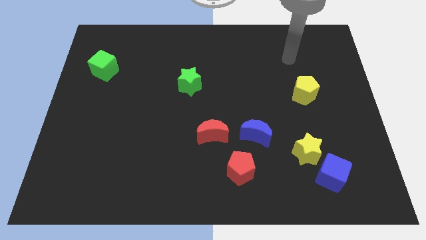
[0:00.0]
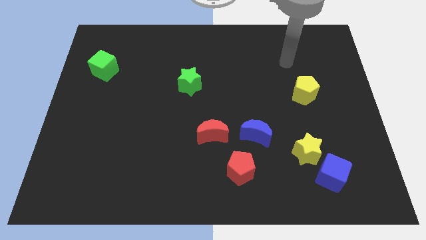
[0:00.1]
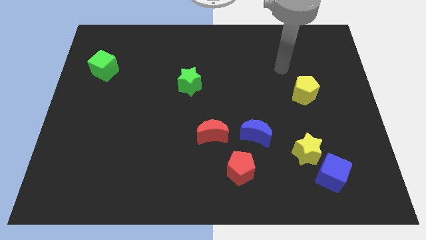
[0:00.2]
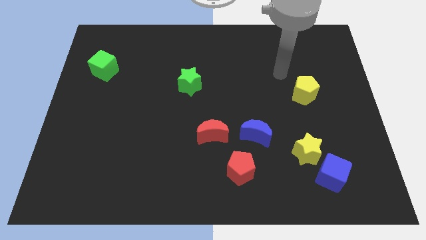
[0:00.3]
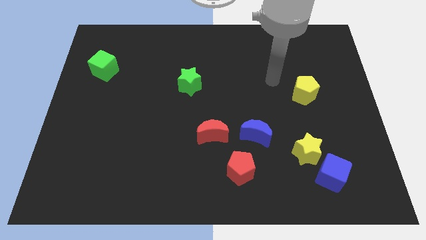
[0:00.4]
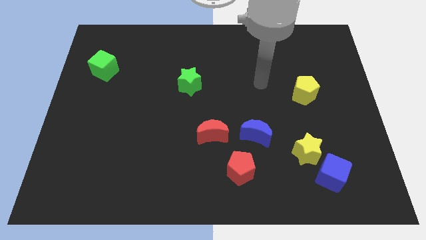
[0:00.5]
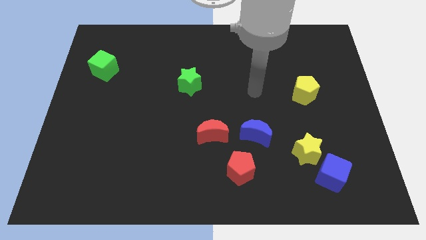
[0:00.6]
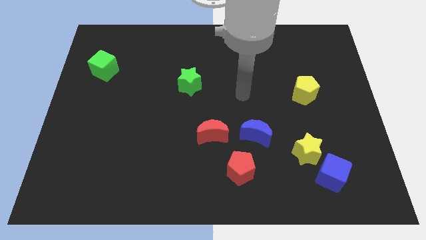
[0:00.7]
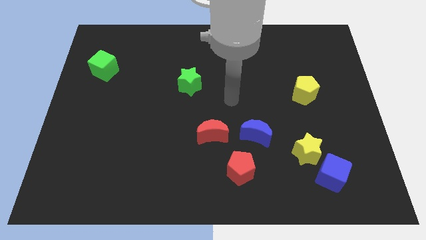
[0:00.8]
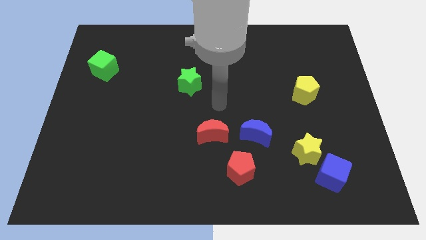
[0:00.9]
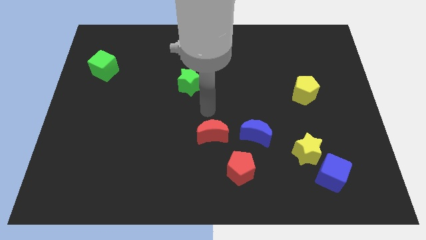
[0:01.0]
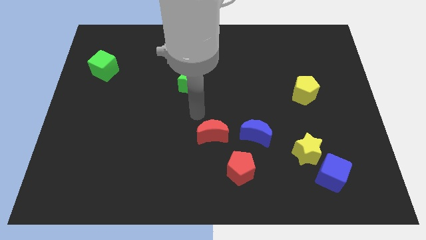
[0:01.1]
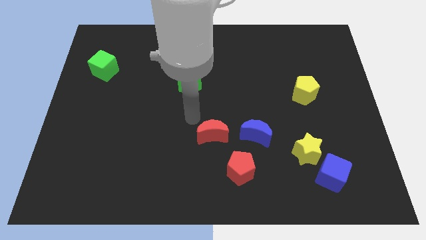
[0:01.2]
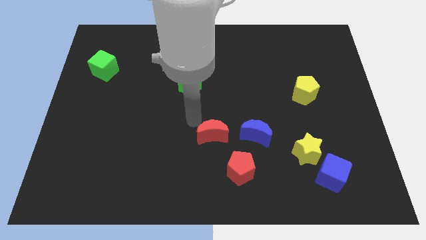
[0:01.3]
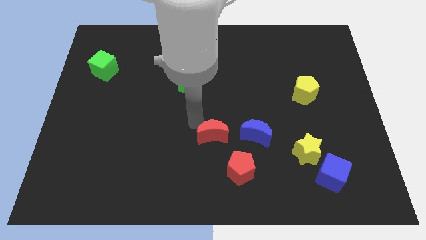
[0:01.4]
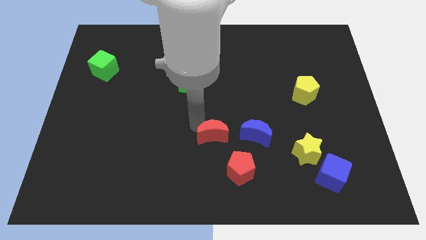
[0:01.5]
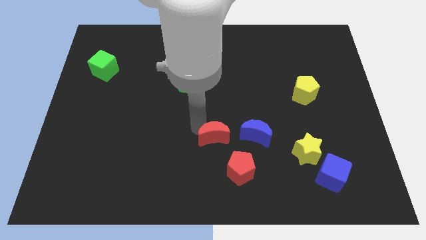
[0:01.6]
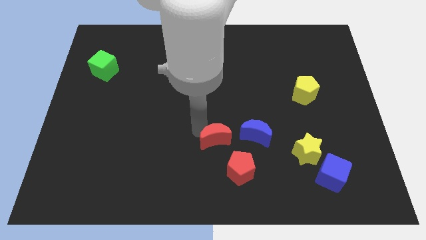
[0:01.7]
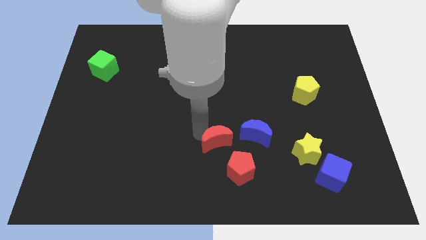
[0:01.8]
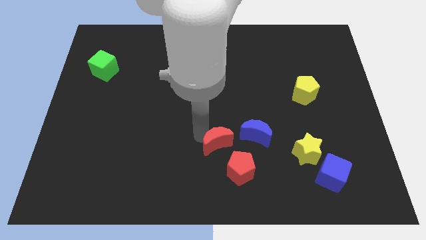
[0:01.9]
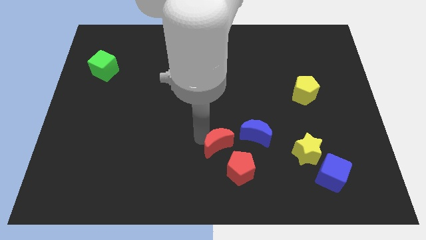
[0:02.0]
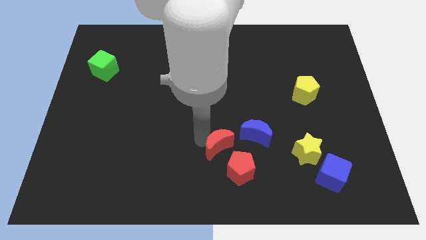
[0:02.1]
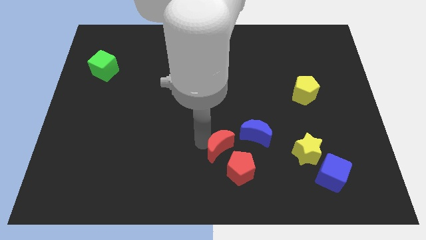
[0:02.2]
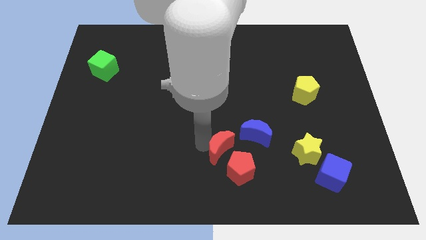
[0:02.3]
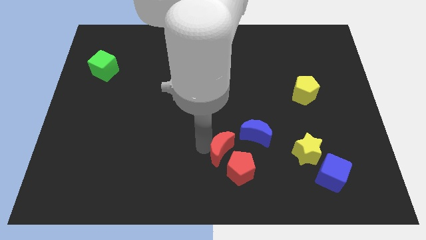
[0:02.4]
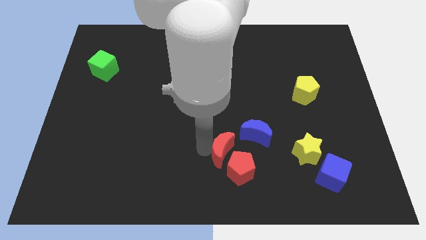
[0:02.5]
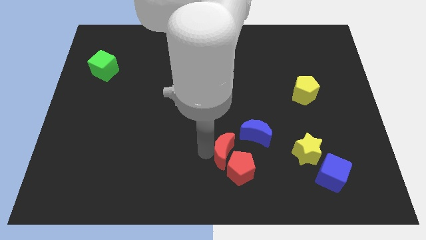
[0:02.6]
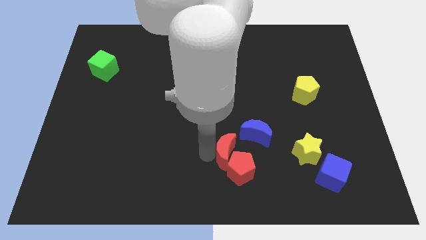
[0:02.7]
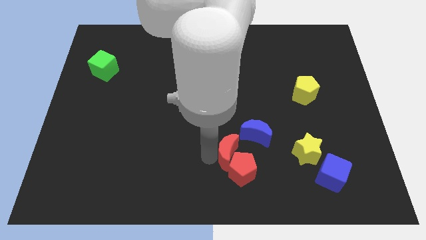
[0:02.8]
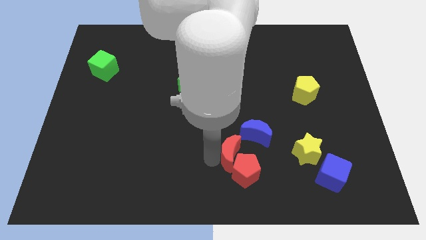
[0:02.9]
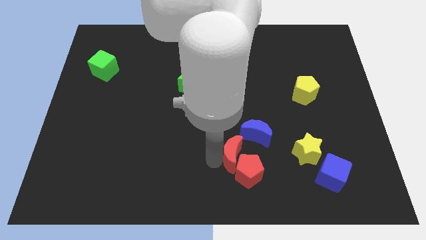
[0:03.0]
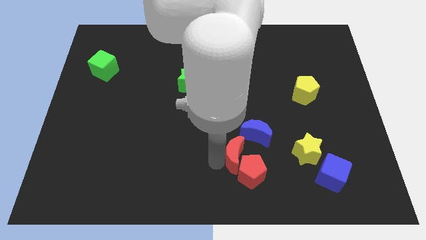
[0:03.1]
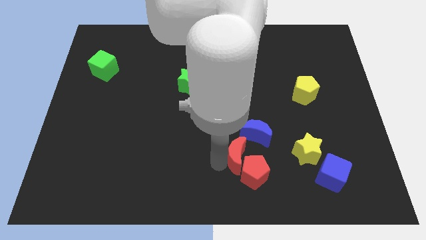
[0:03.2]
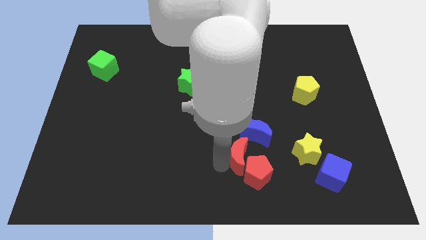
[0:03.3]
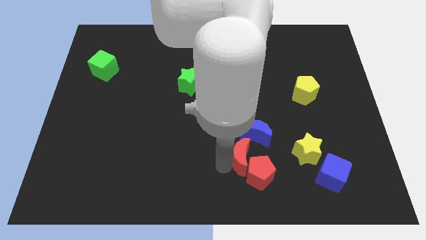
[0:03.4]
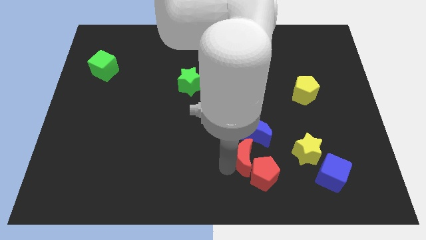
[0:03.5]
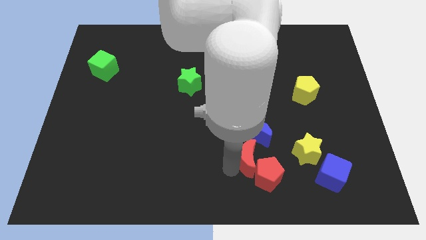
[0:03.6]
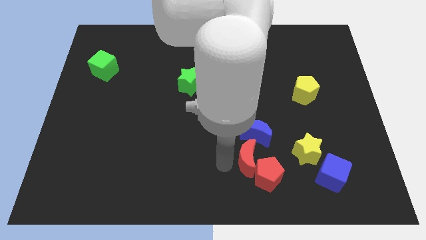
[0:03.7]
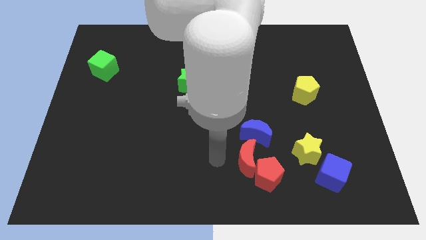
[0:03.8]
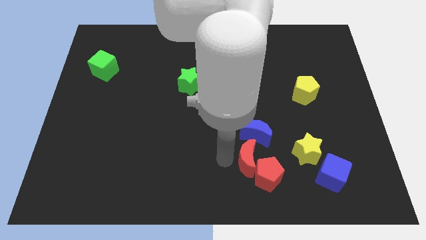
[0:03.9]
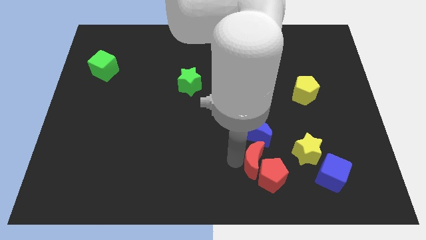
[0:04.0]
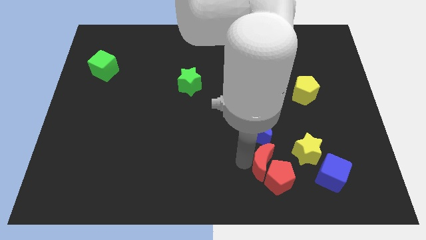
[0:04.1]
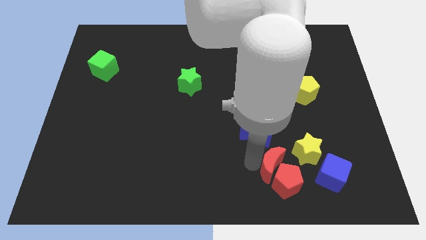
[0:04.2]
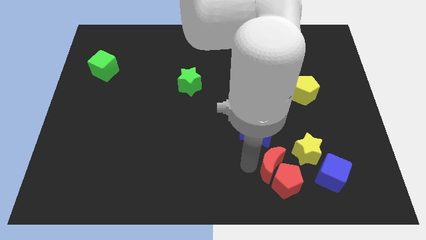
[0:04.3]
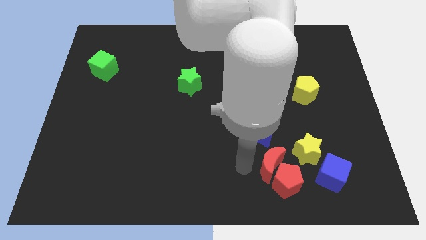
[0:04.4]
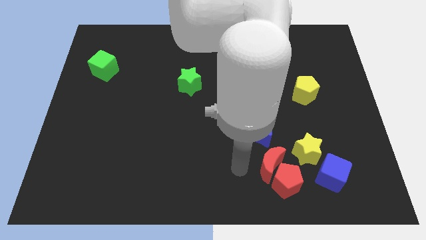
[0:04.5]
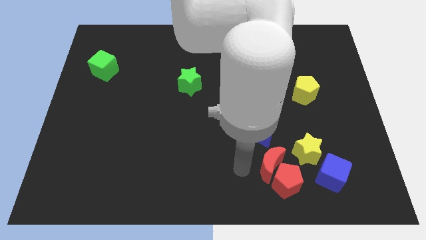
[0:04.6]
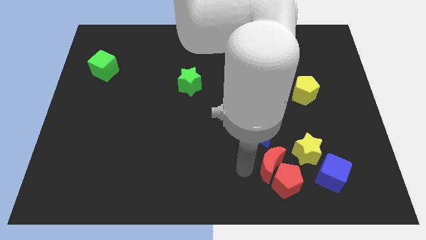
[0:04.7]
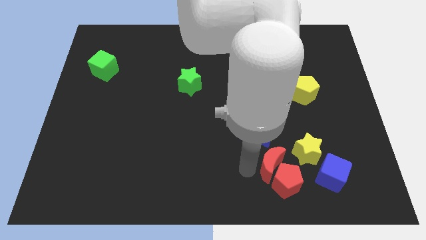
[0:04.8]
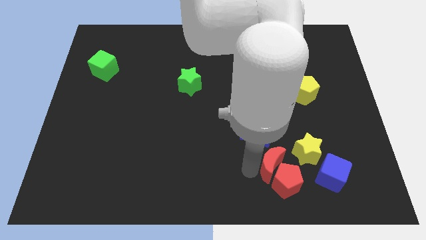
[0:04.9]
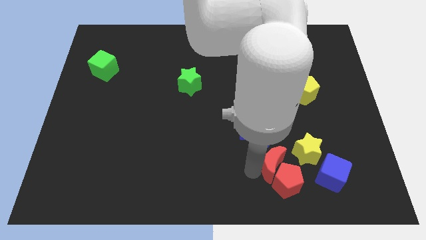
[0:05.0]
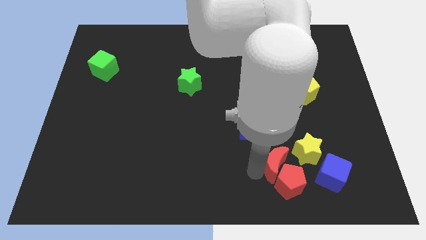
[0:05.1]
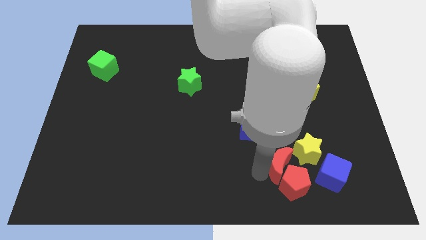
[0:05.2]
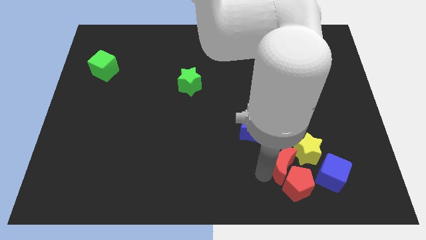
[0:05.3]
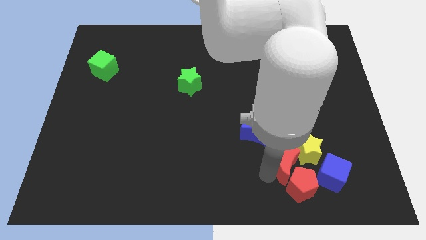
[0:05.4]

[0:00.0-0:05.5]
move the red moon to the yellow star

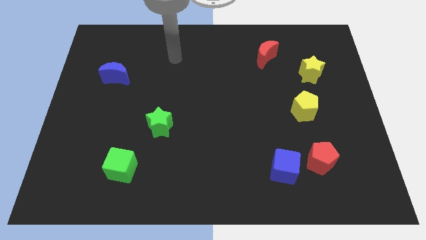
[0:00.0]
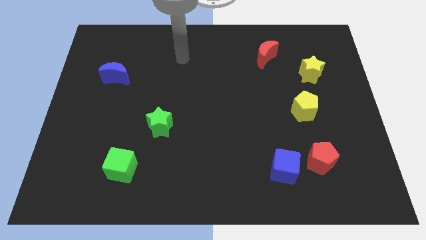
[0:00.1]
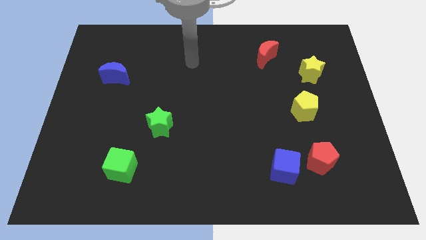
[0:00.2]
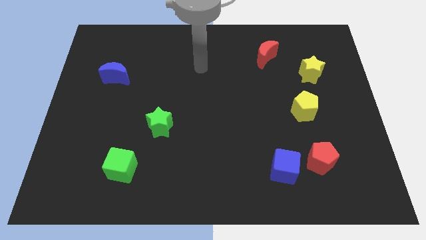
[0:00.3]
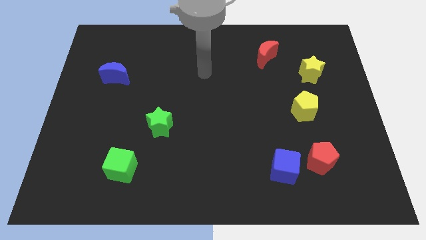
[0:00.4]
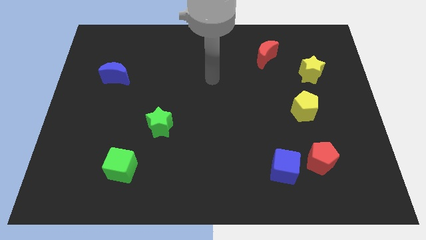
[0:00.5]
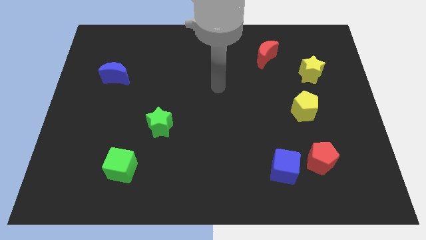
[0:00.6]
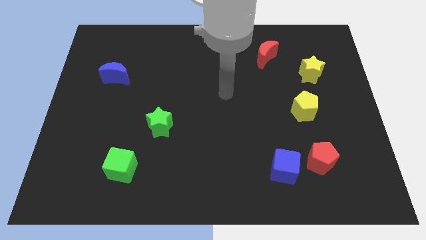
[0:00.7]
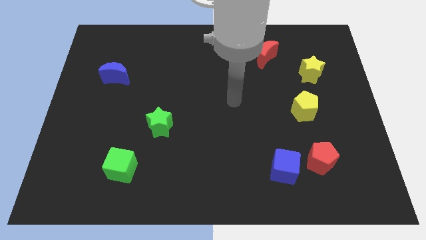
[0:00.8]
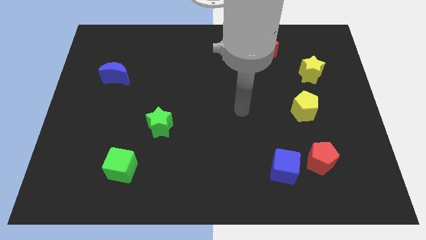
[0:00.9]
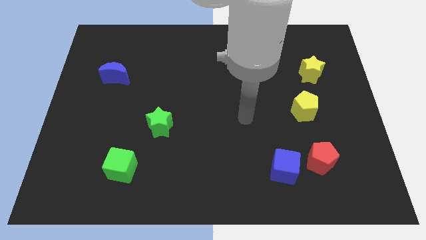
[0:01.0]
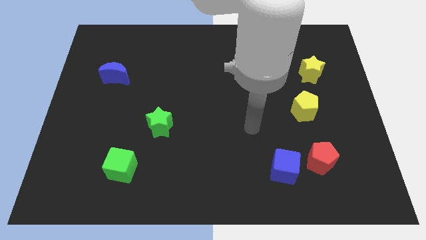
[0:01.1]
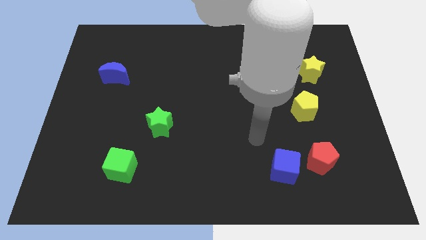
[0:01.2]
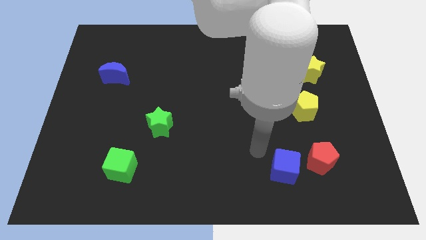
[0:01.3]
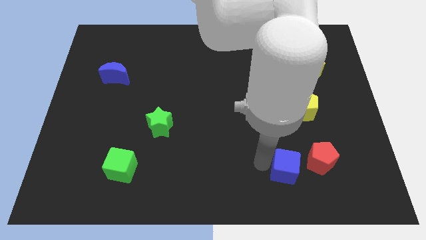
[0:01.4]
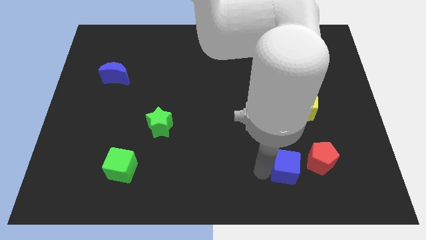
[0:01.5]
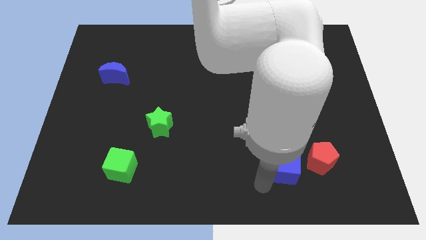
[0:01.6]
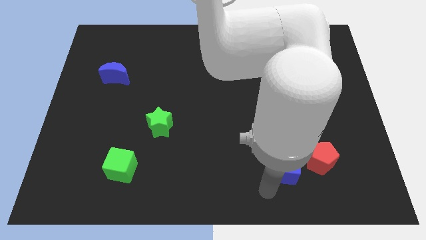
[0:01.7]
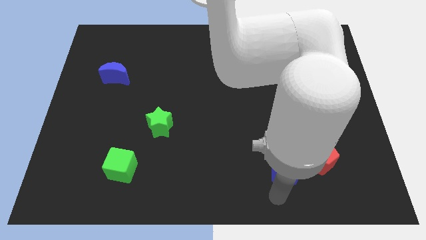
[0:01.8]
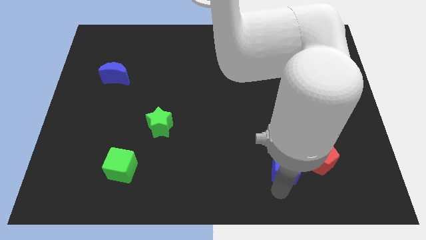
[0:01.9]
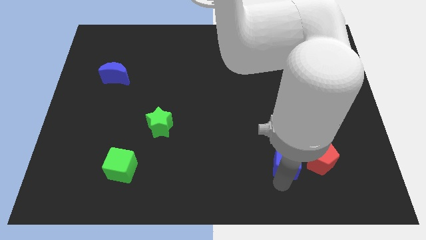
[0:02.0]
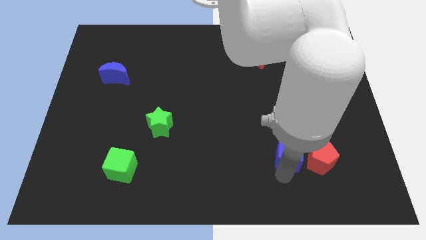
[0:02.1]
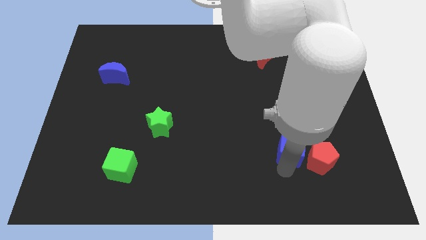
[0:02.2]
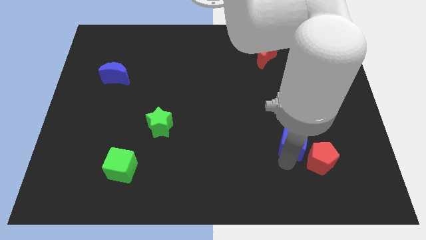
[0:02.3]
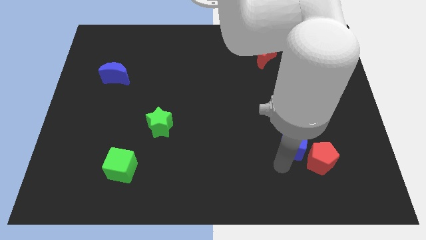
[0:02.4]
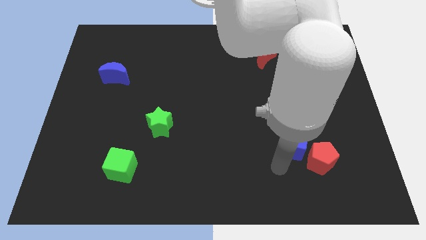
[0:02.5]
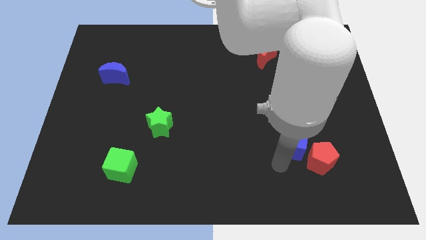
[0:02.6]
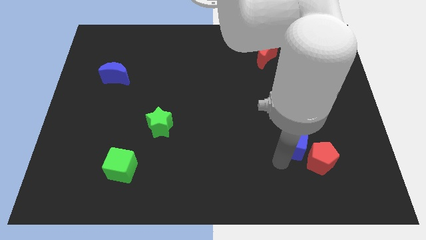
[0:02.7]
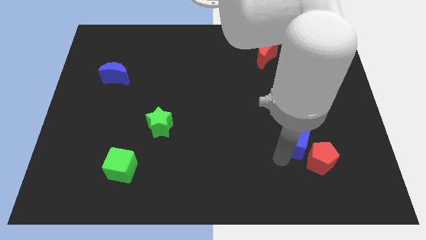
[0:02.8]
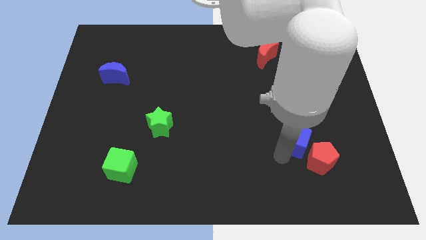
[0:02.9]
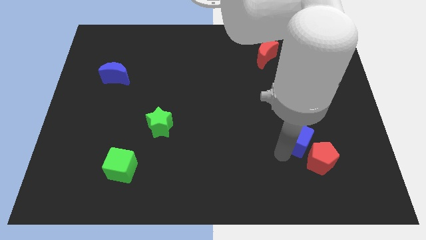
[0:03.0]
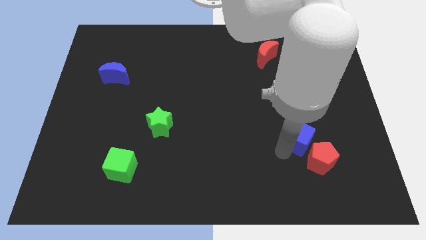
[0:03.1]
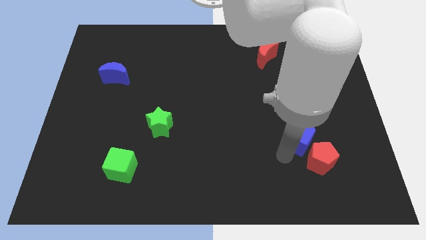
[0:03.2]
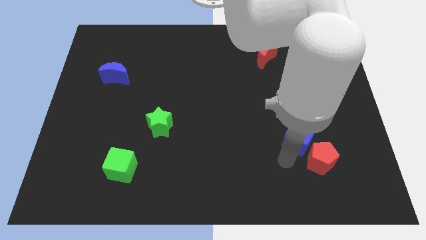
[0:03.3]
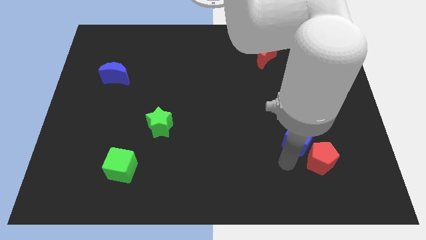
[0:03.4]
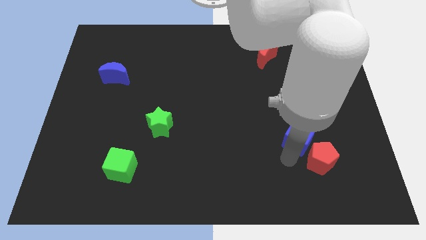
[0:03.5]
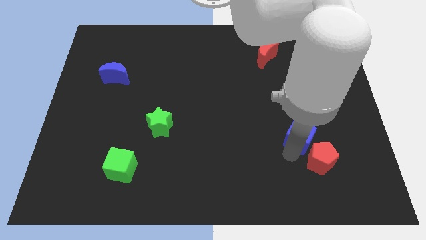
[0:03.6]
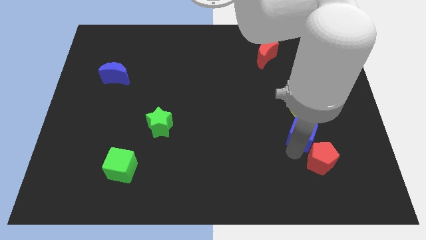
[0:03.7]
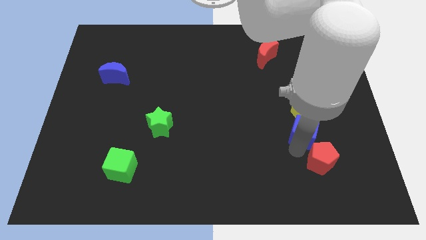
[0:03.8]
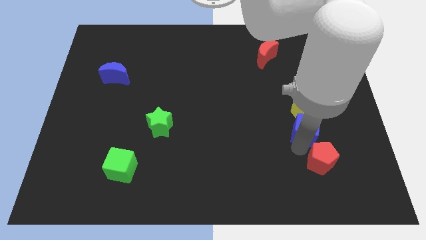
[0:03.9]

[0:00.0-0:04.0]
move the blue cube next to the yellow pentagon
